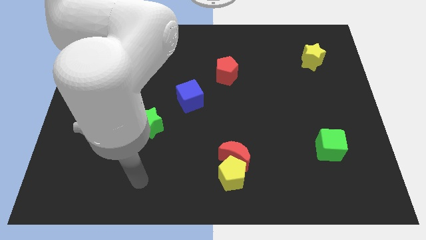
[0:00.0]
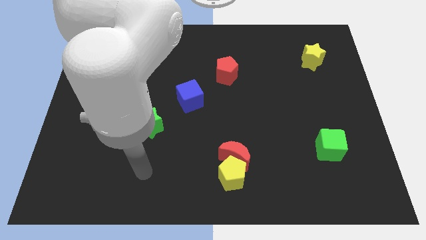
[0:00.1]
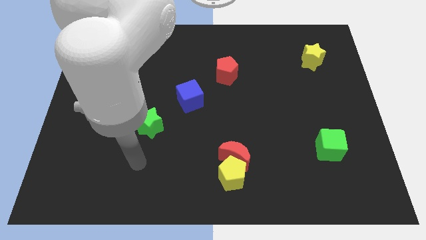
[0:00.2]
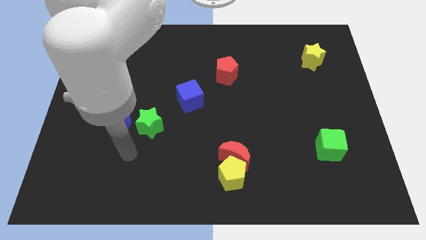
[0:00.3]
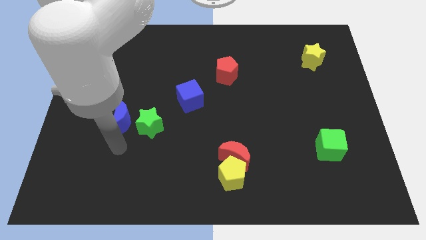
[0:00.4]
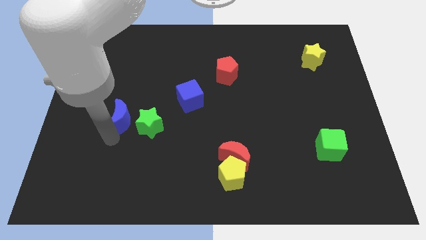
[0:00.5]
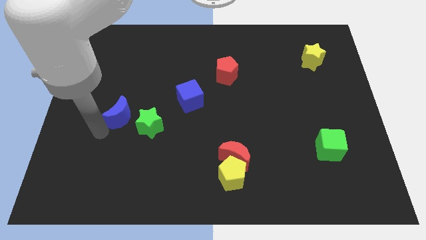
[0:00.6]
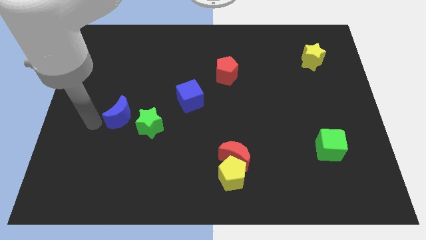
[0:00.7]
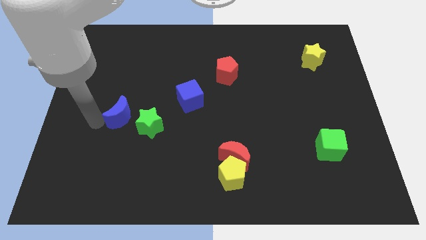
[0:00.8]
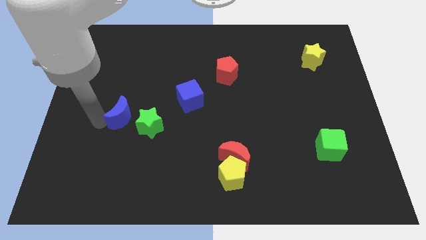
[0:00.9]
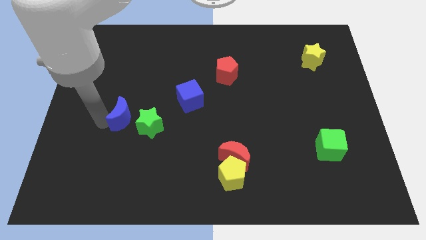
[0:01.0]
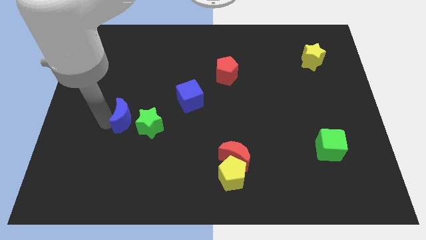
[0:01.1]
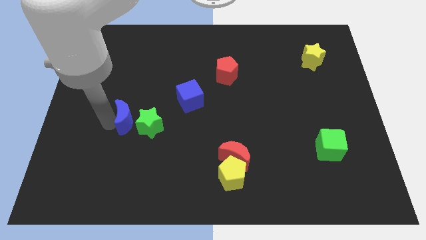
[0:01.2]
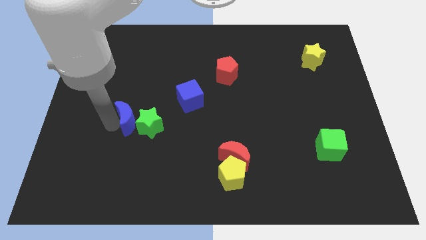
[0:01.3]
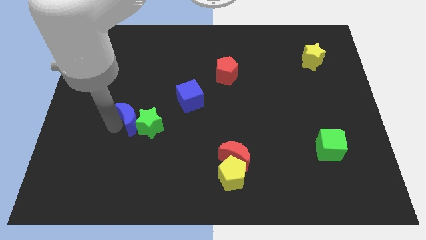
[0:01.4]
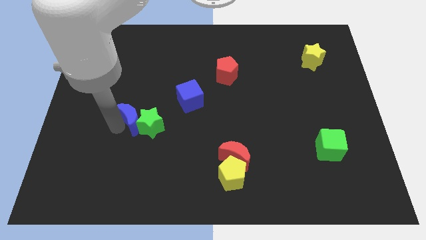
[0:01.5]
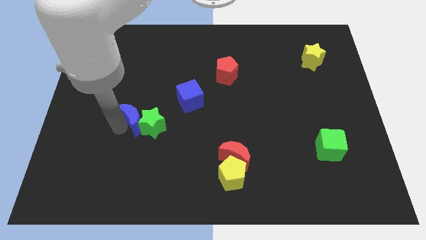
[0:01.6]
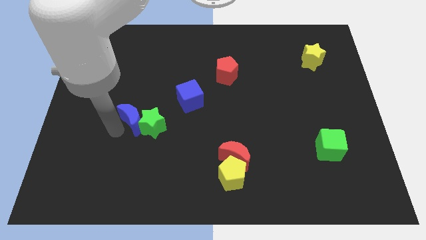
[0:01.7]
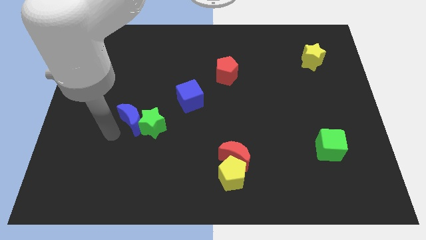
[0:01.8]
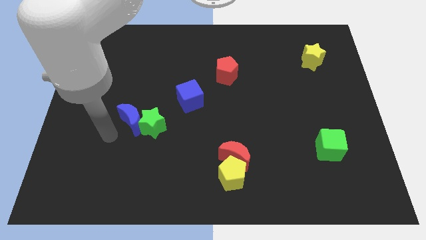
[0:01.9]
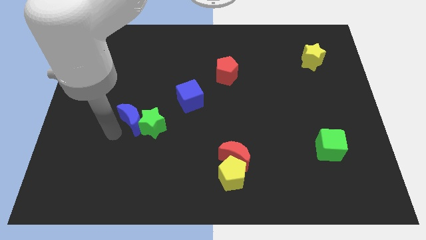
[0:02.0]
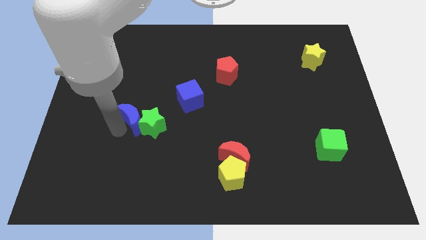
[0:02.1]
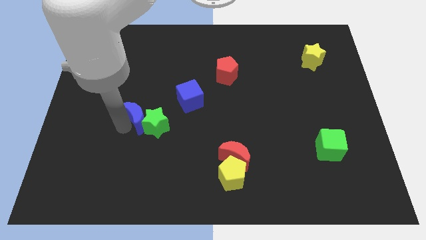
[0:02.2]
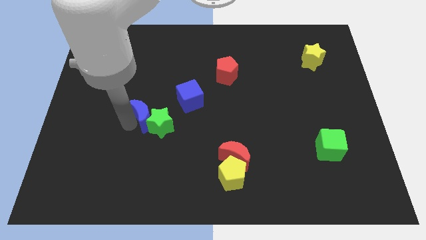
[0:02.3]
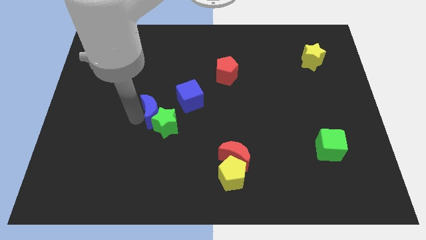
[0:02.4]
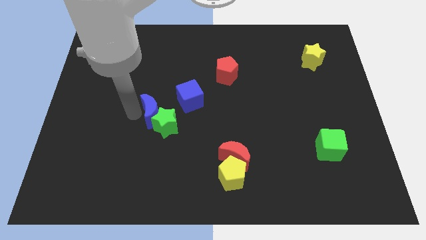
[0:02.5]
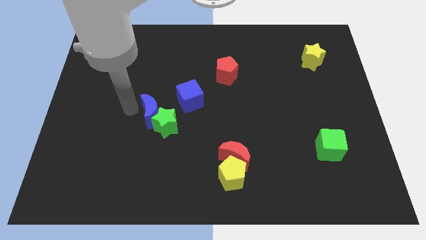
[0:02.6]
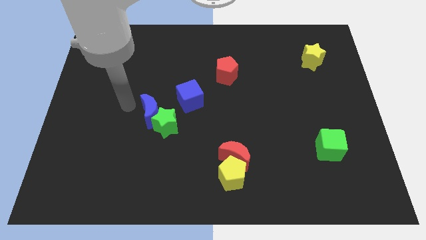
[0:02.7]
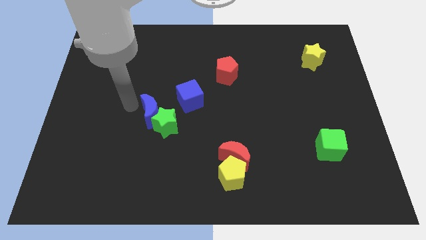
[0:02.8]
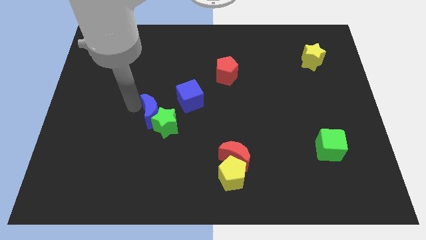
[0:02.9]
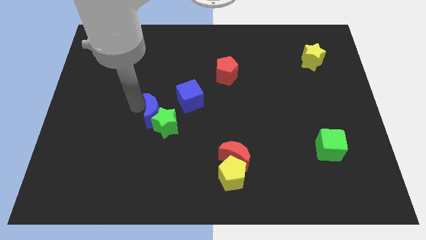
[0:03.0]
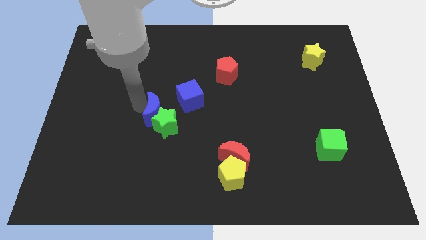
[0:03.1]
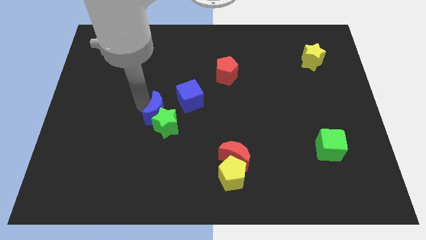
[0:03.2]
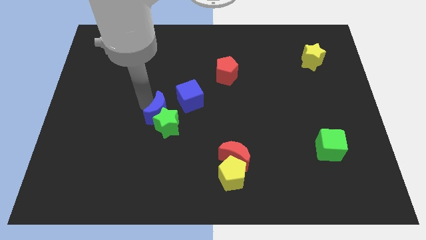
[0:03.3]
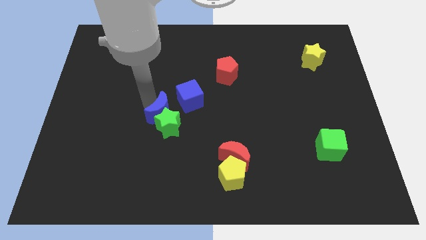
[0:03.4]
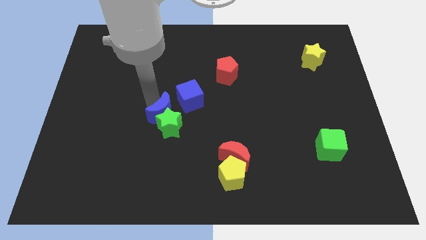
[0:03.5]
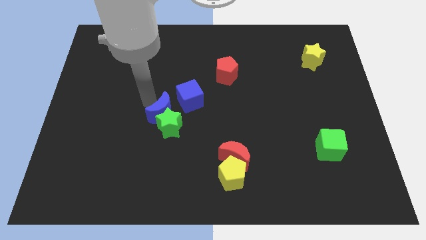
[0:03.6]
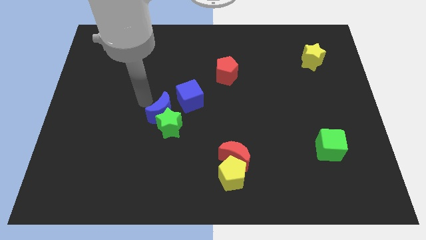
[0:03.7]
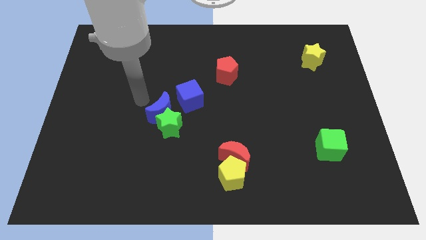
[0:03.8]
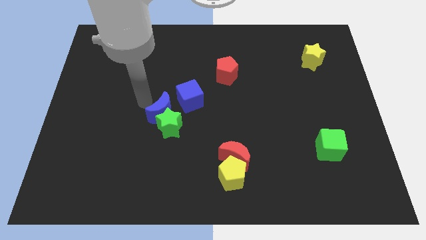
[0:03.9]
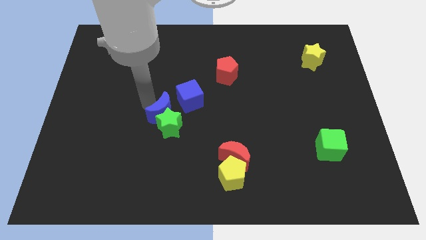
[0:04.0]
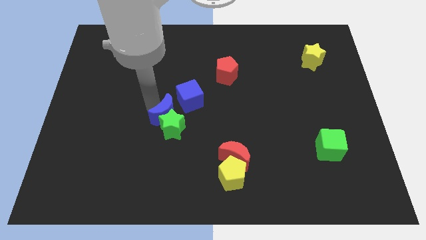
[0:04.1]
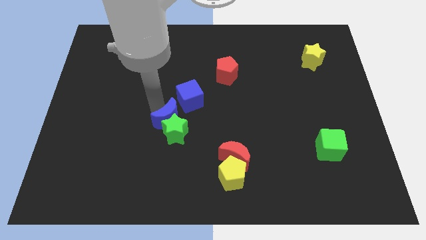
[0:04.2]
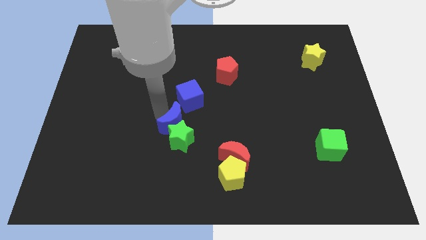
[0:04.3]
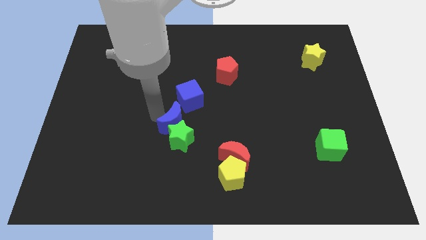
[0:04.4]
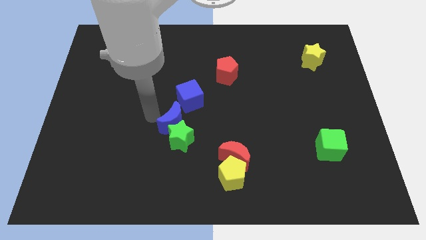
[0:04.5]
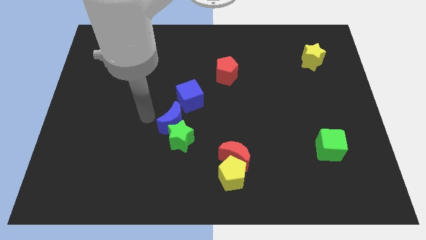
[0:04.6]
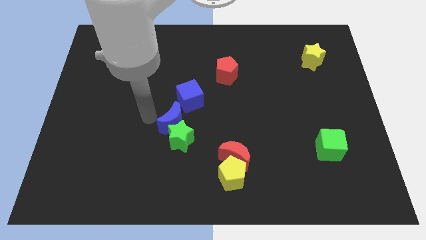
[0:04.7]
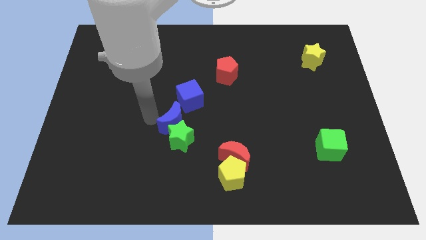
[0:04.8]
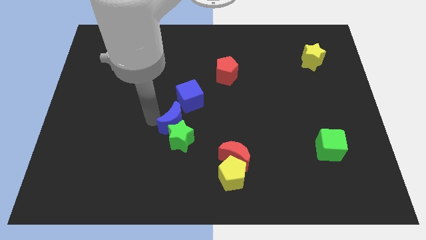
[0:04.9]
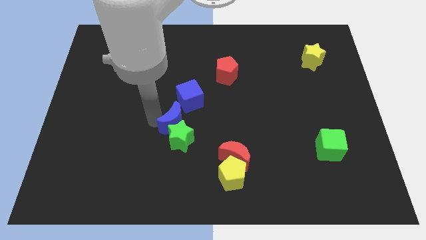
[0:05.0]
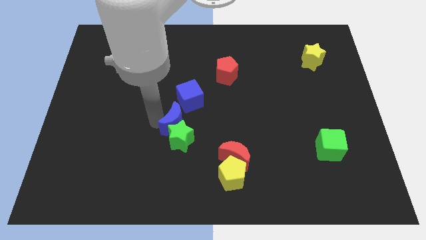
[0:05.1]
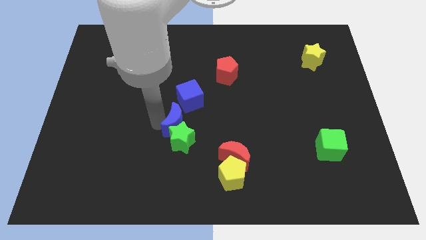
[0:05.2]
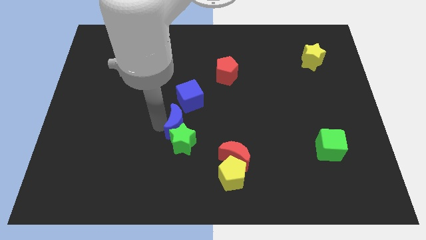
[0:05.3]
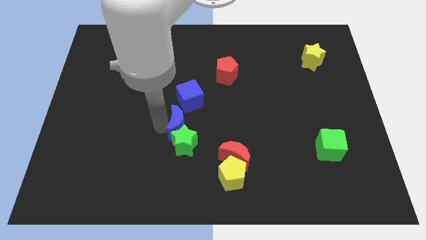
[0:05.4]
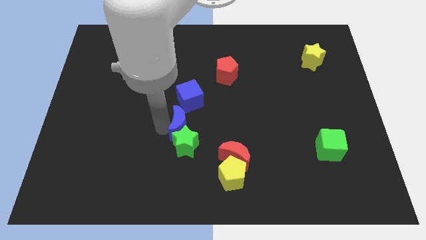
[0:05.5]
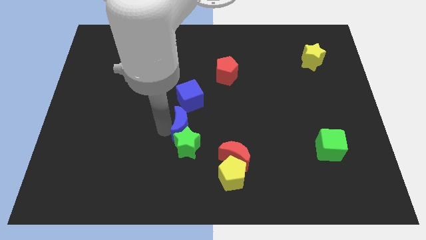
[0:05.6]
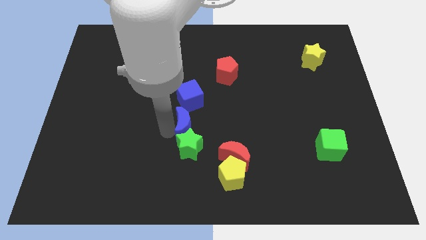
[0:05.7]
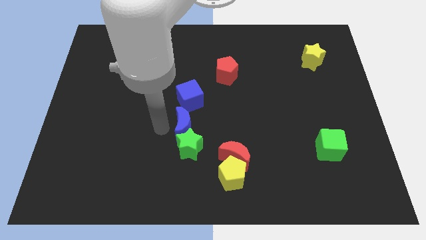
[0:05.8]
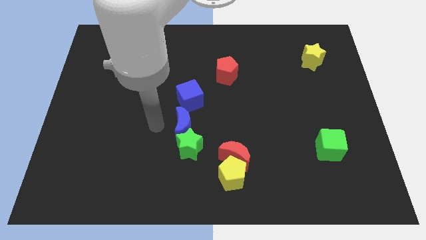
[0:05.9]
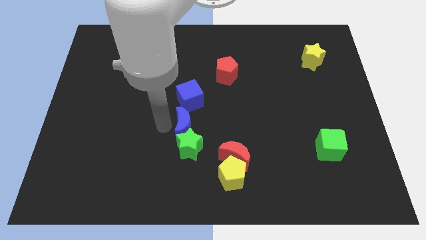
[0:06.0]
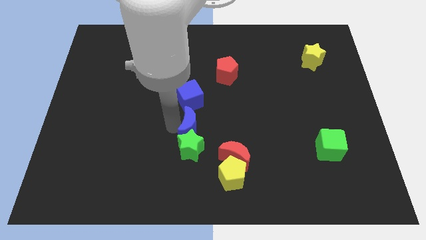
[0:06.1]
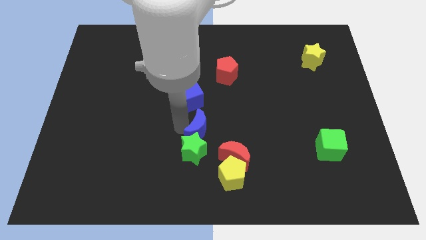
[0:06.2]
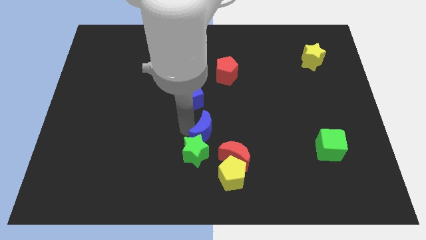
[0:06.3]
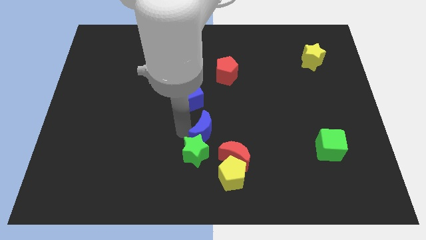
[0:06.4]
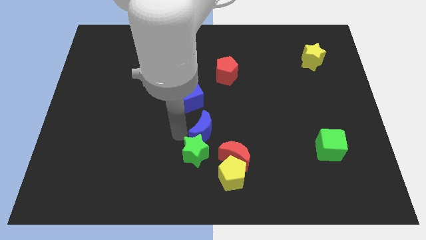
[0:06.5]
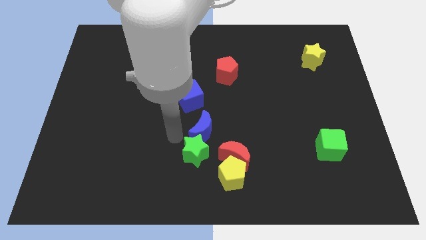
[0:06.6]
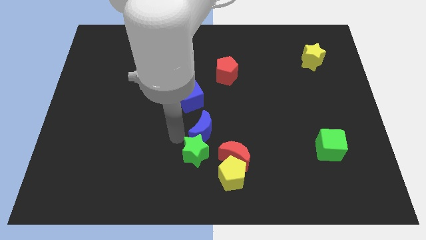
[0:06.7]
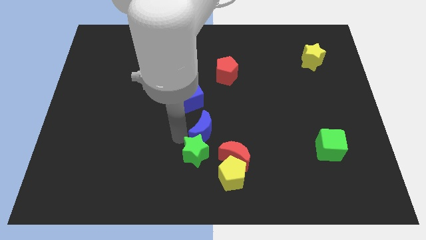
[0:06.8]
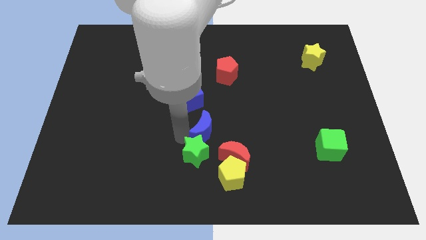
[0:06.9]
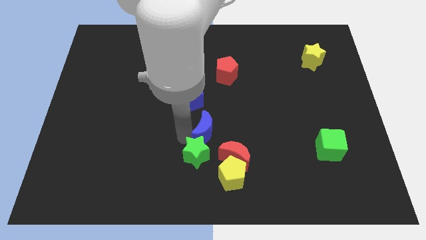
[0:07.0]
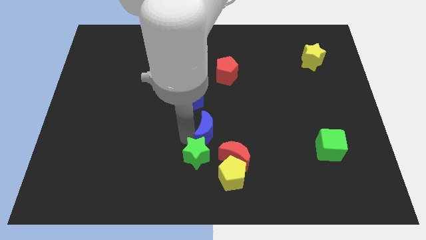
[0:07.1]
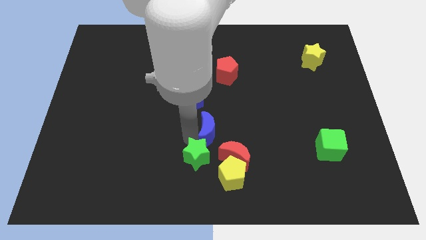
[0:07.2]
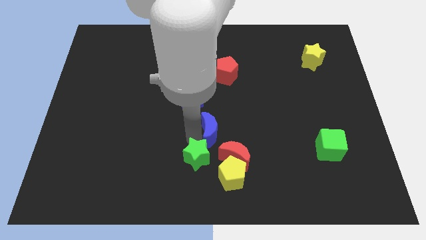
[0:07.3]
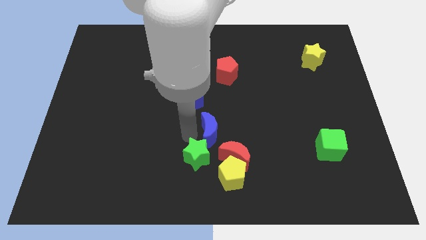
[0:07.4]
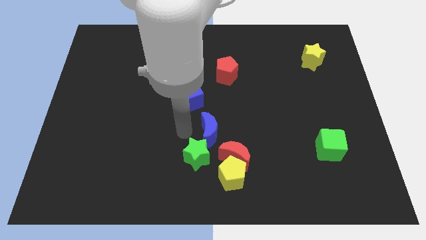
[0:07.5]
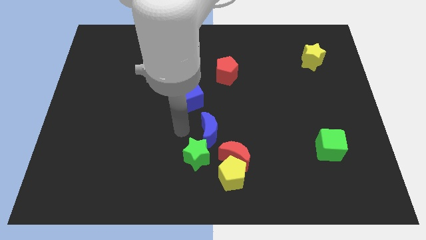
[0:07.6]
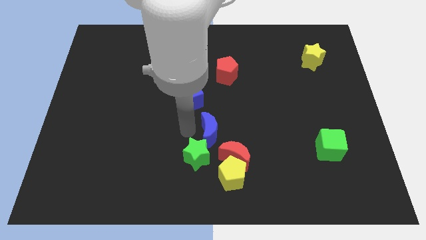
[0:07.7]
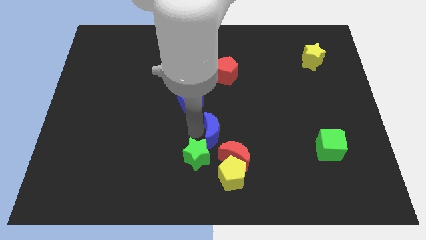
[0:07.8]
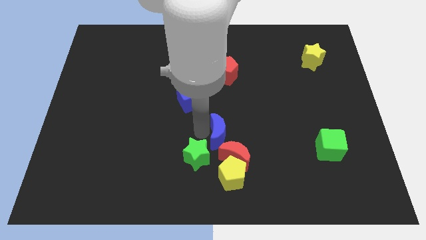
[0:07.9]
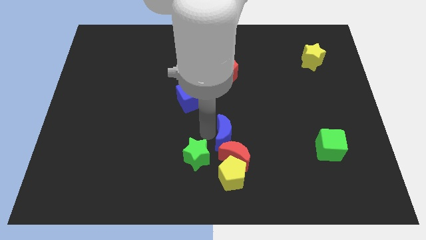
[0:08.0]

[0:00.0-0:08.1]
slide the blue moon towards the red moon
